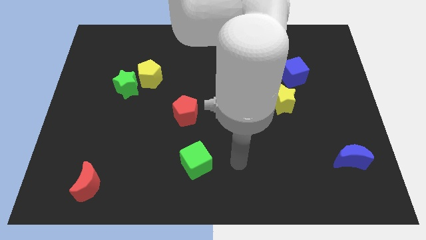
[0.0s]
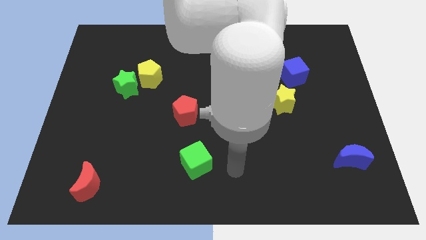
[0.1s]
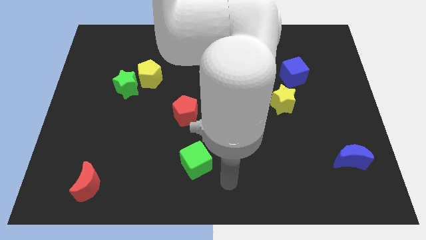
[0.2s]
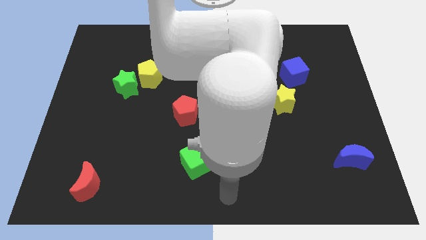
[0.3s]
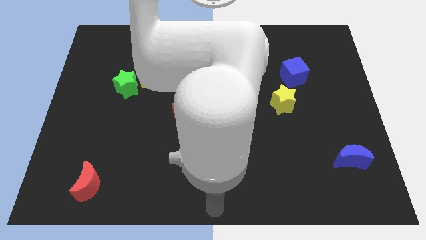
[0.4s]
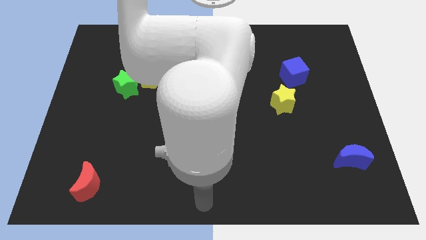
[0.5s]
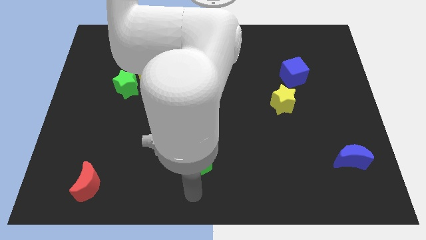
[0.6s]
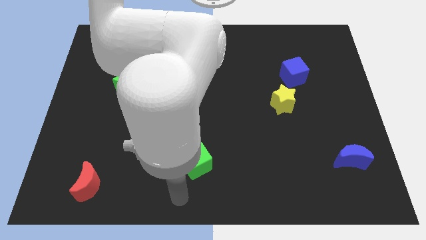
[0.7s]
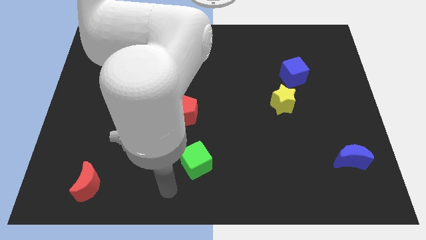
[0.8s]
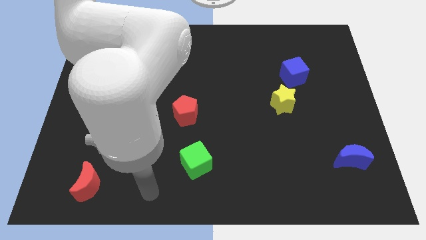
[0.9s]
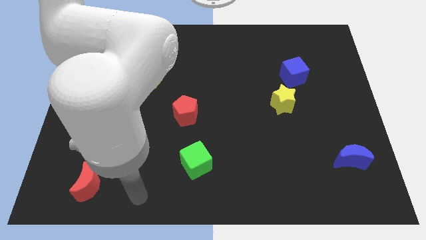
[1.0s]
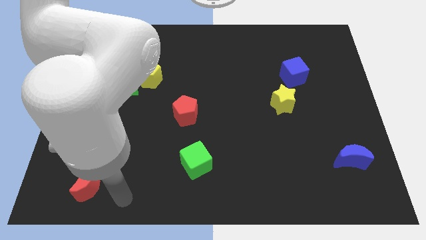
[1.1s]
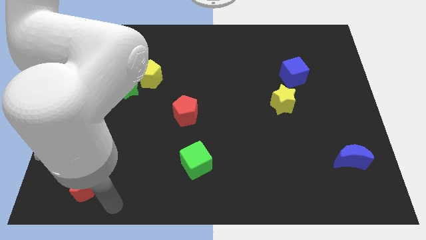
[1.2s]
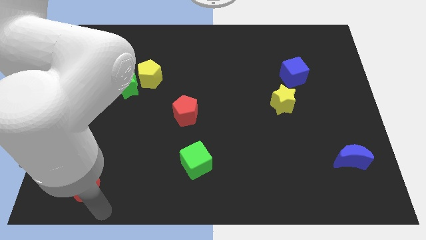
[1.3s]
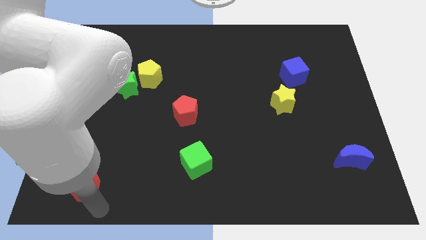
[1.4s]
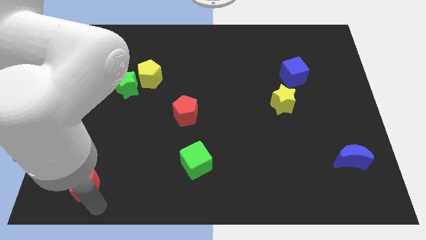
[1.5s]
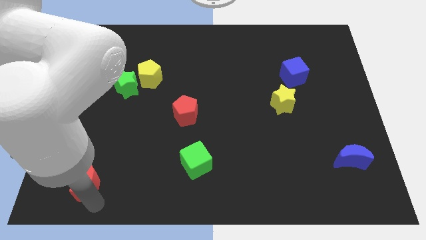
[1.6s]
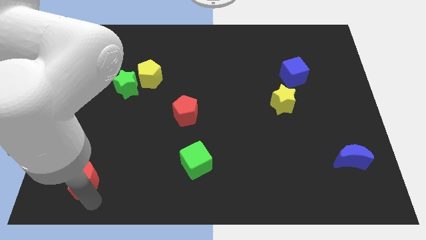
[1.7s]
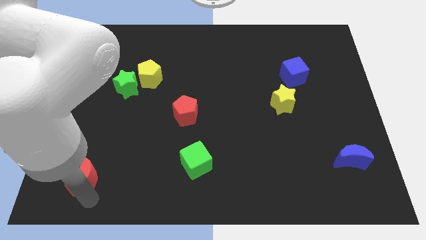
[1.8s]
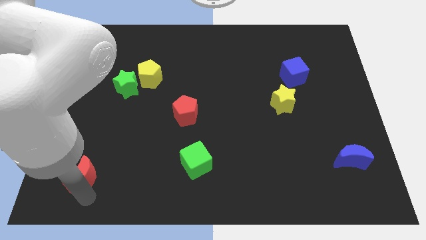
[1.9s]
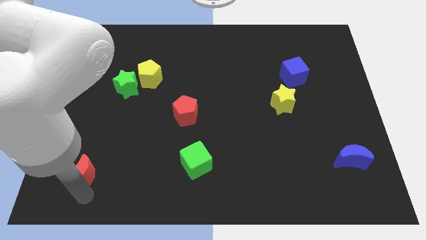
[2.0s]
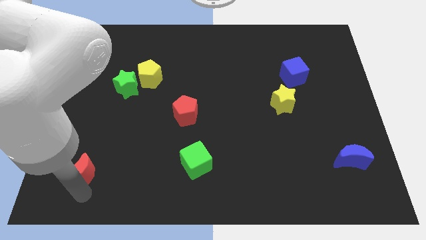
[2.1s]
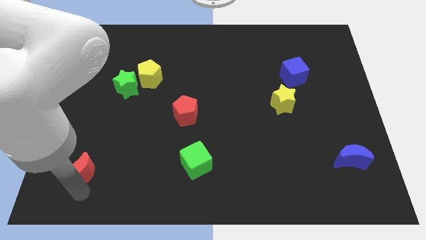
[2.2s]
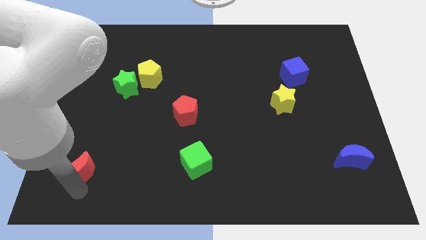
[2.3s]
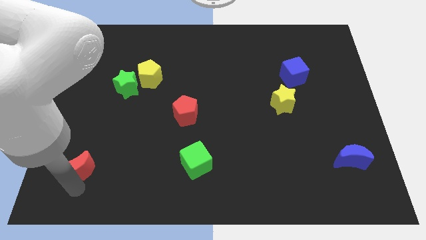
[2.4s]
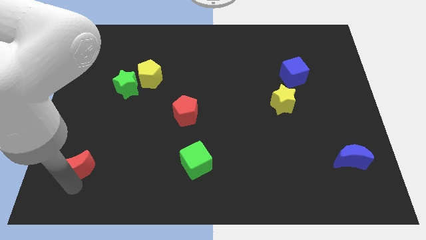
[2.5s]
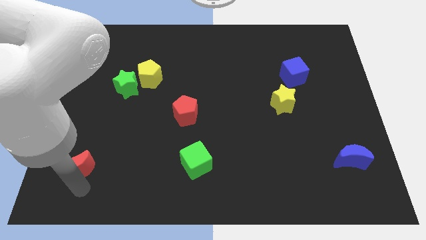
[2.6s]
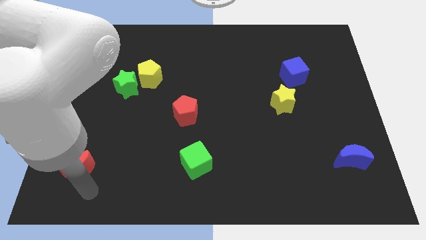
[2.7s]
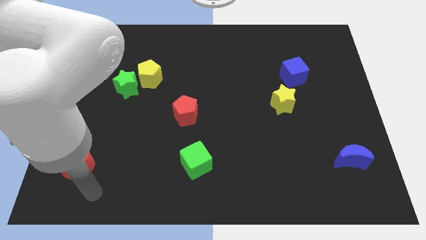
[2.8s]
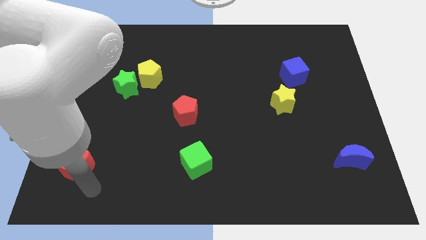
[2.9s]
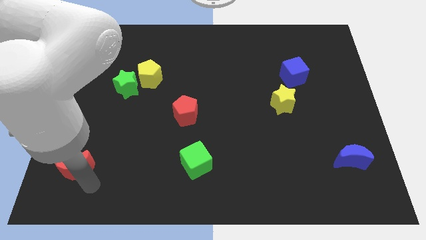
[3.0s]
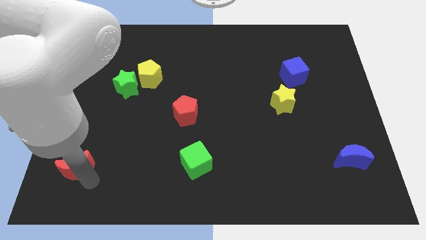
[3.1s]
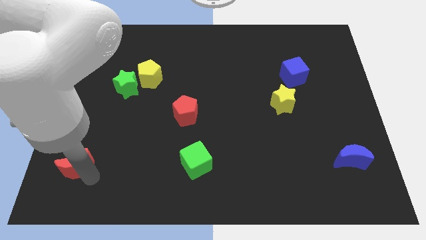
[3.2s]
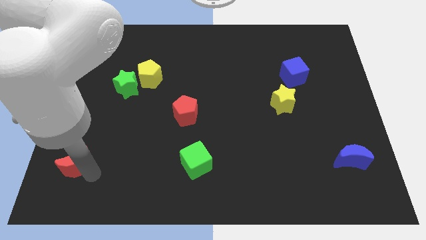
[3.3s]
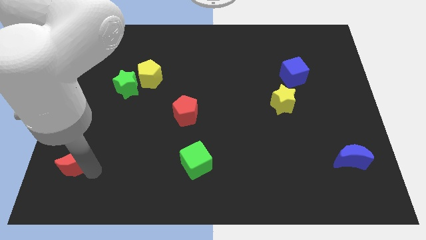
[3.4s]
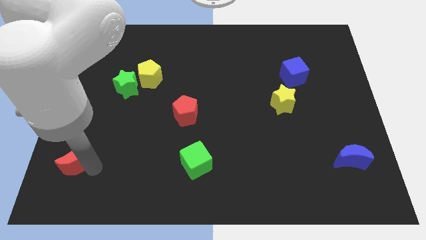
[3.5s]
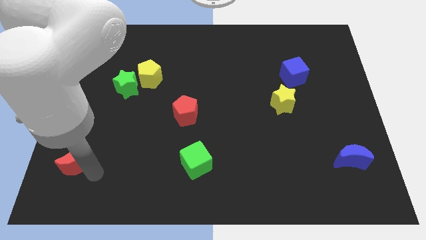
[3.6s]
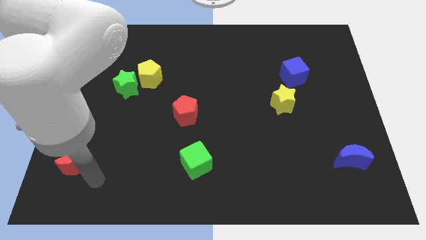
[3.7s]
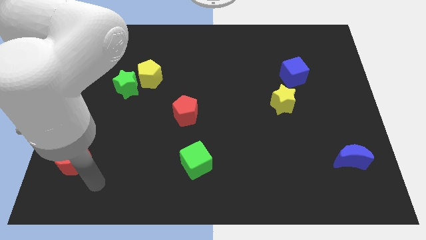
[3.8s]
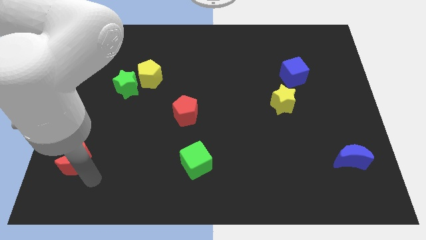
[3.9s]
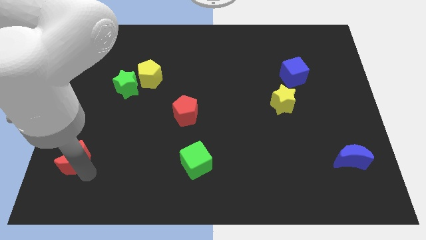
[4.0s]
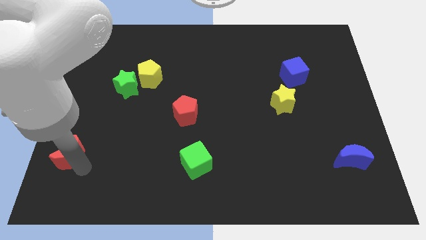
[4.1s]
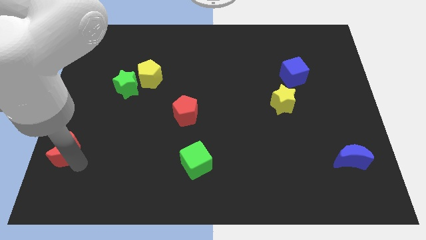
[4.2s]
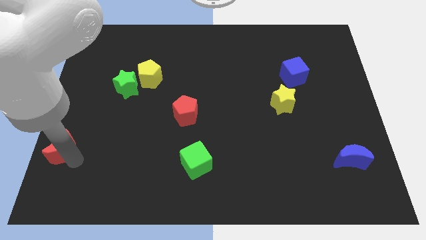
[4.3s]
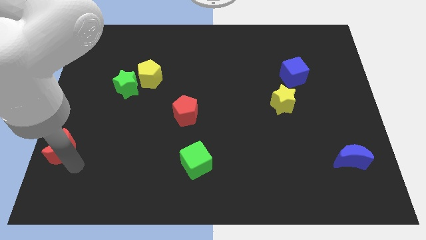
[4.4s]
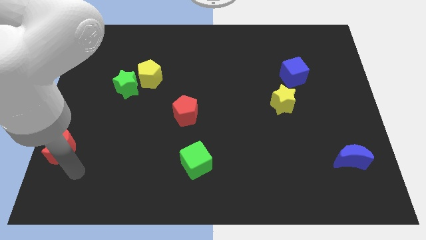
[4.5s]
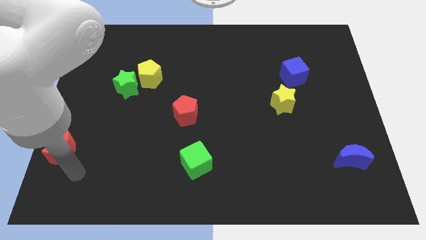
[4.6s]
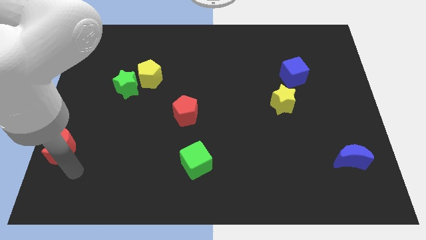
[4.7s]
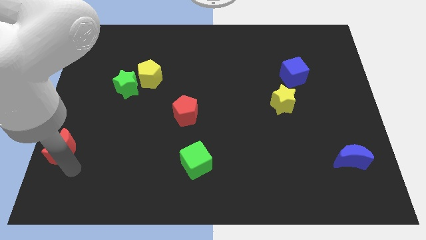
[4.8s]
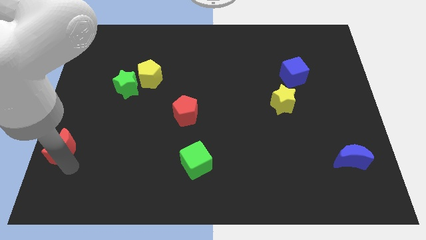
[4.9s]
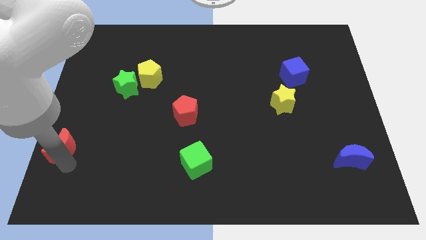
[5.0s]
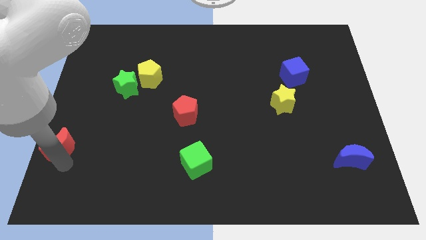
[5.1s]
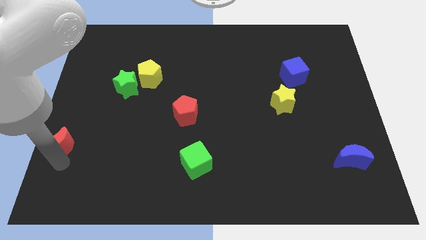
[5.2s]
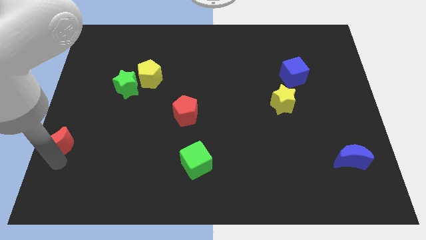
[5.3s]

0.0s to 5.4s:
slide the red moon to the center left
